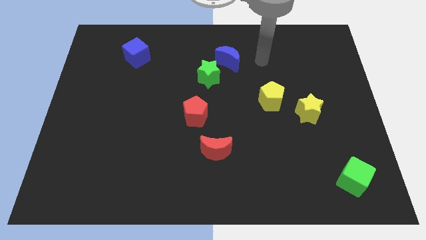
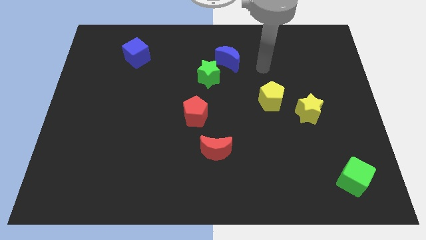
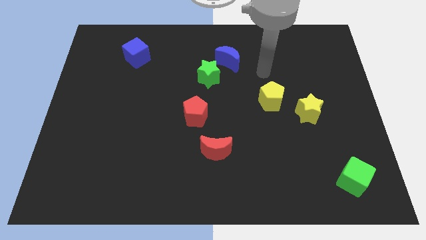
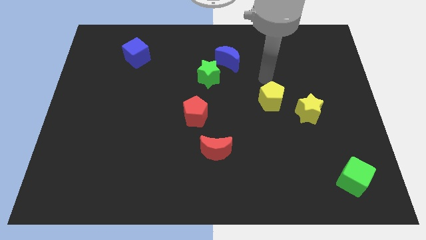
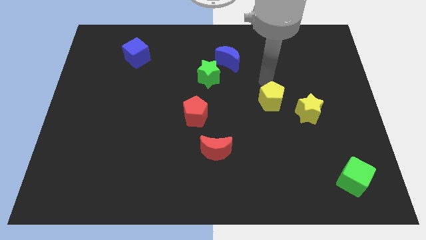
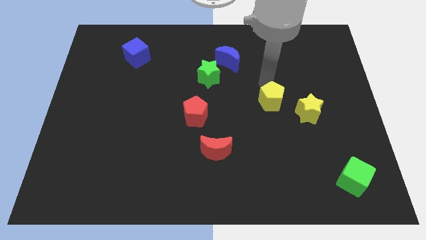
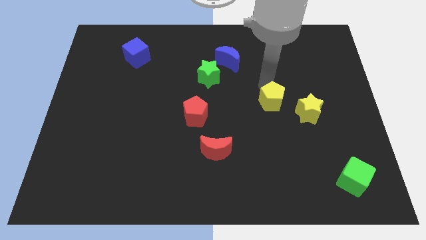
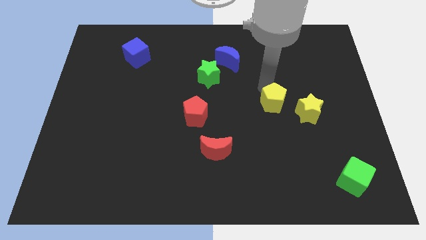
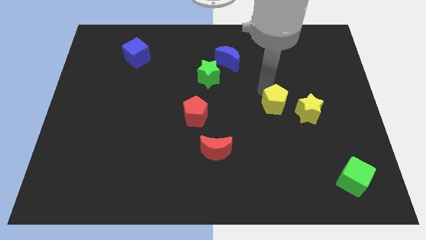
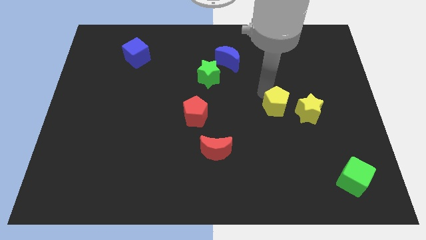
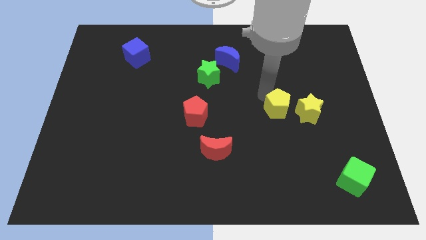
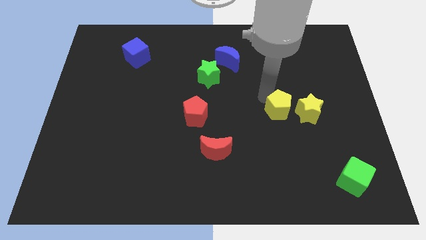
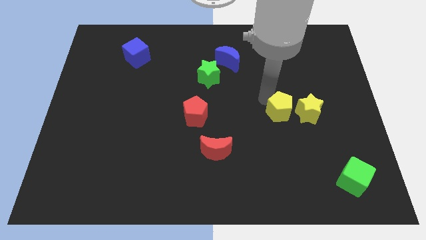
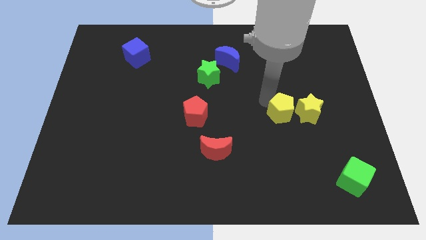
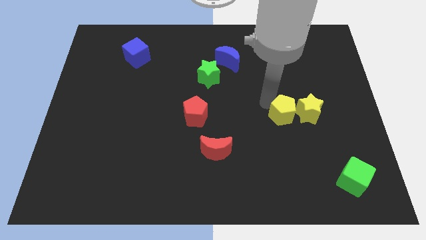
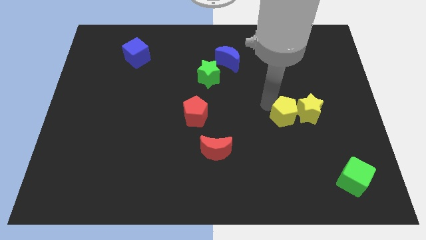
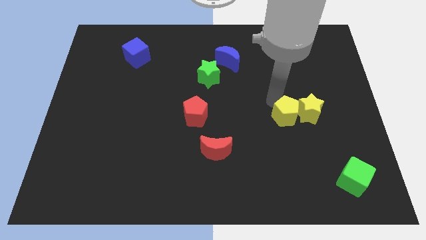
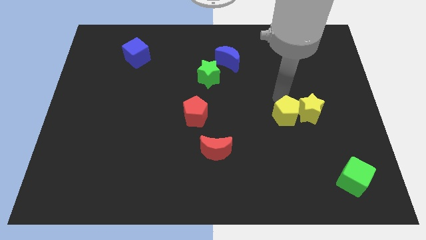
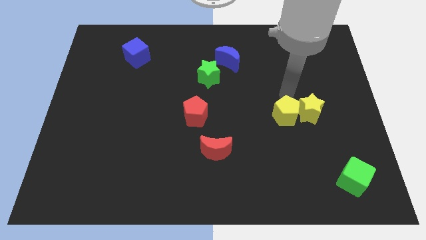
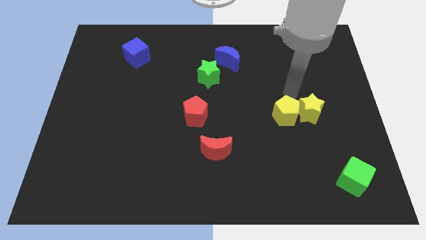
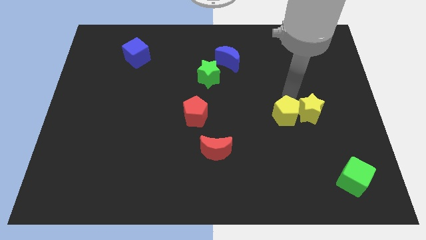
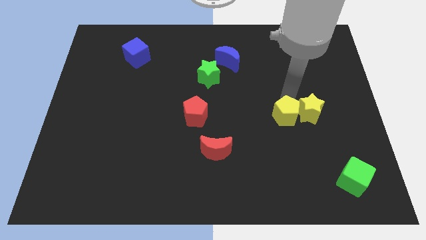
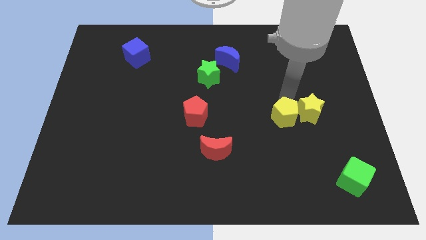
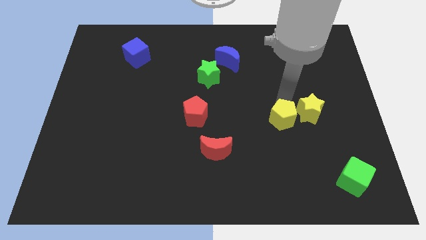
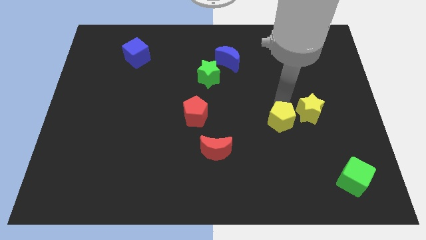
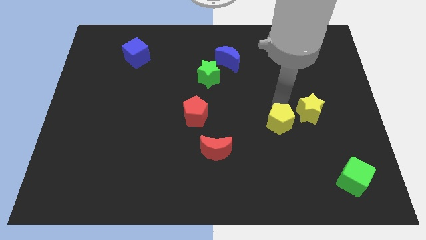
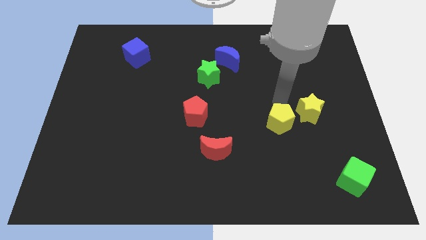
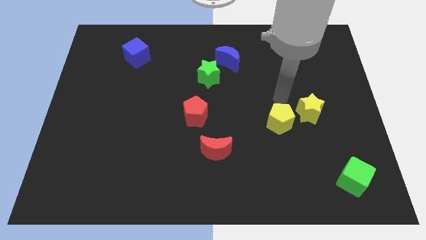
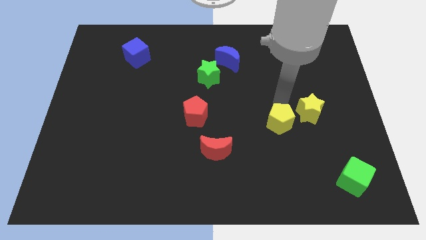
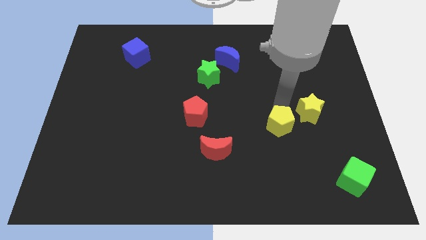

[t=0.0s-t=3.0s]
slide the yellow pentagon a little down

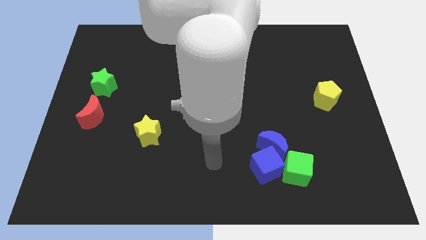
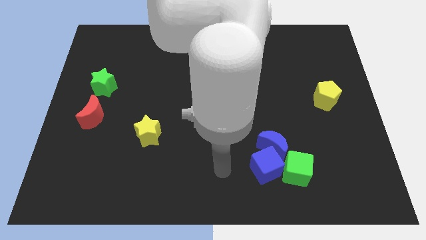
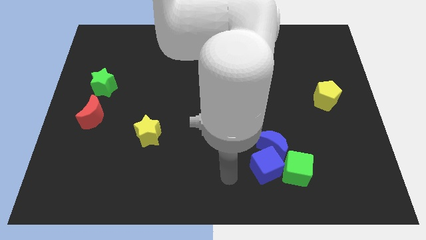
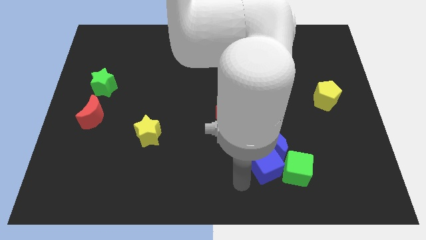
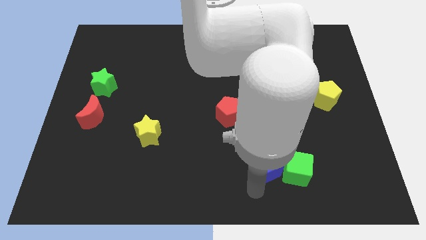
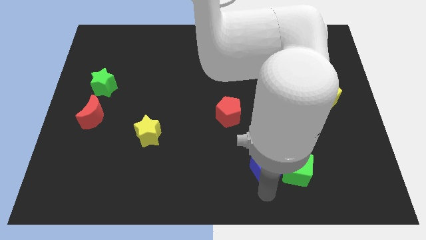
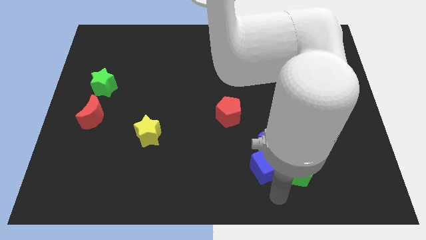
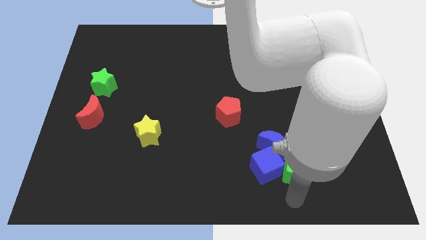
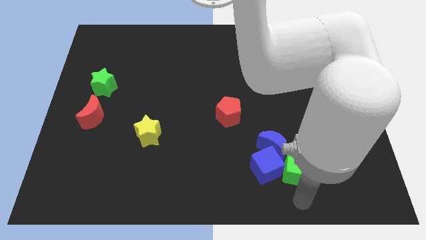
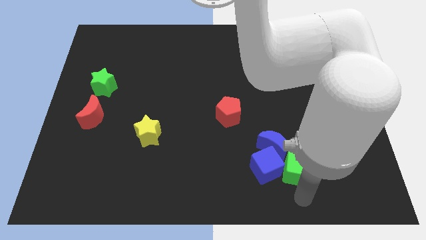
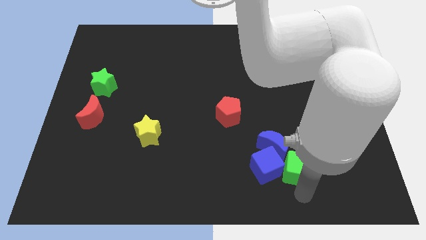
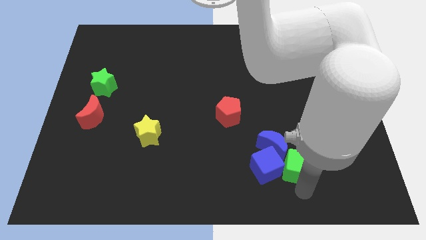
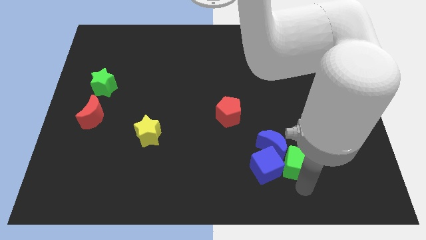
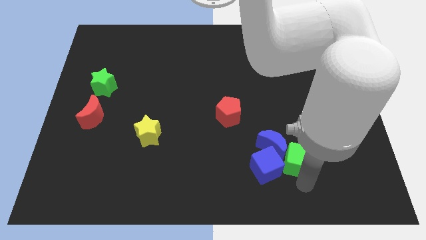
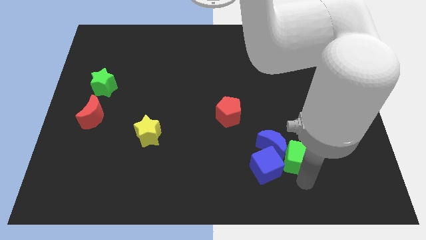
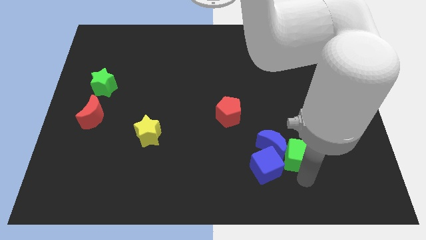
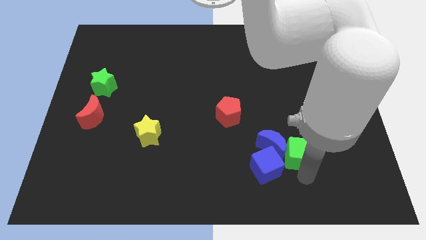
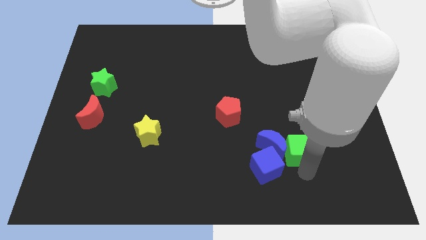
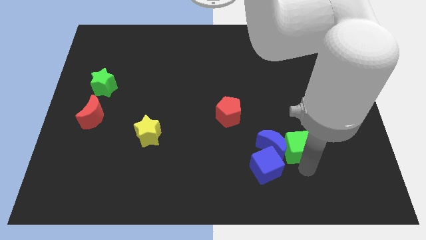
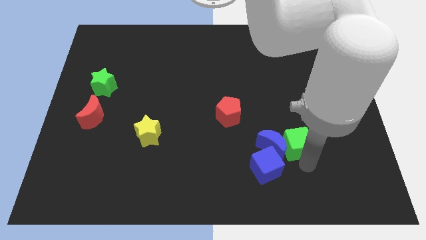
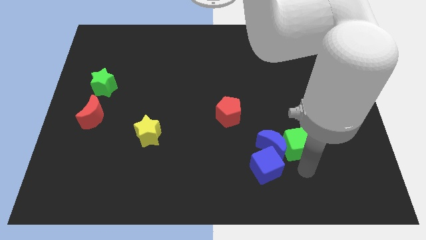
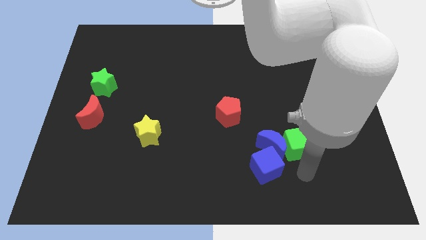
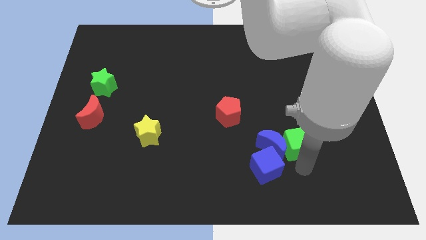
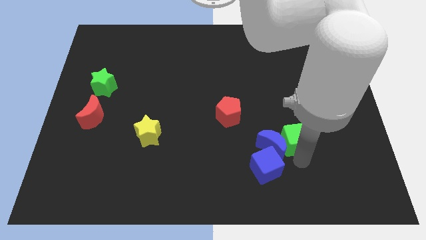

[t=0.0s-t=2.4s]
push the green cube upwards a bit

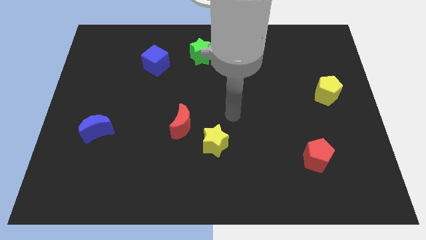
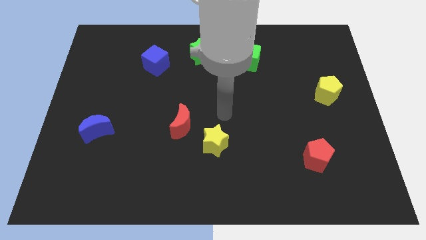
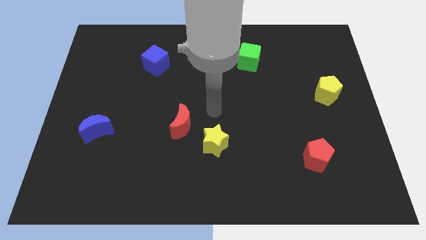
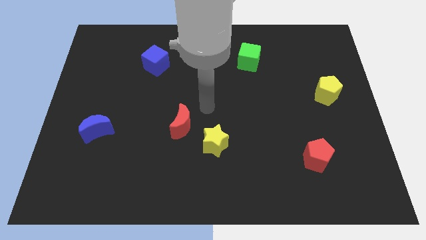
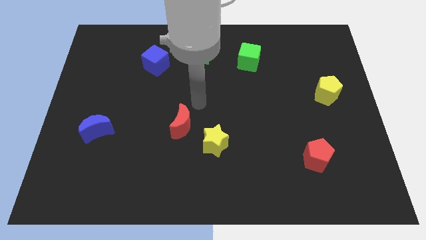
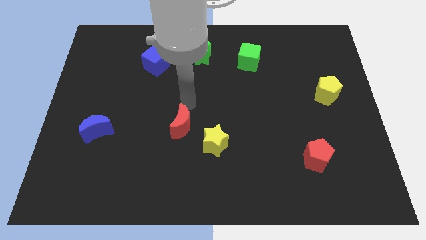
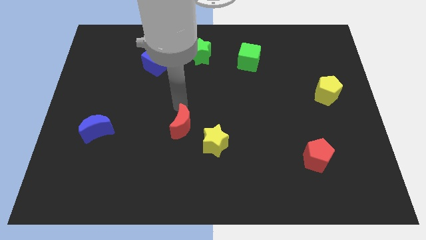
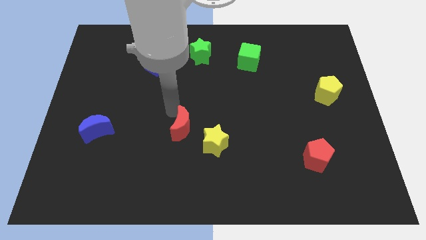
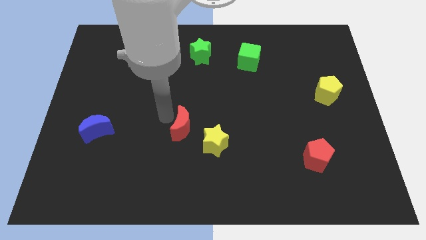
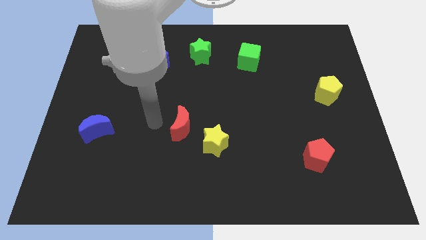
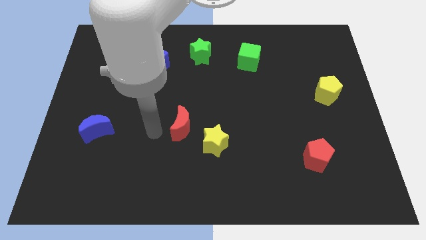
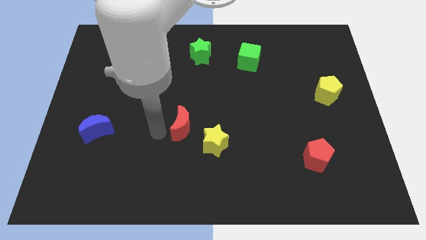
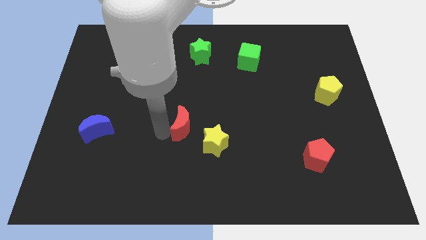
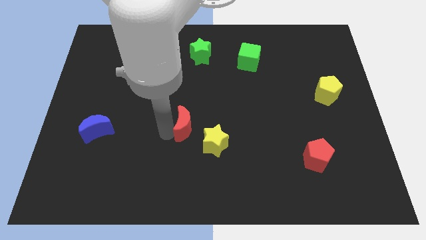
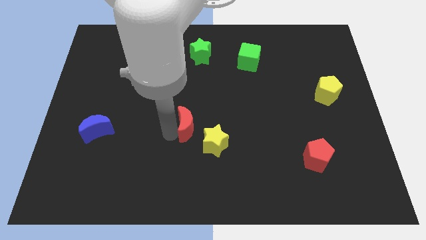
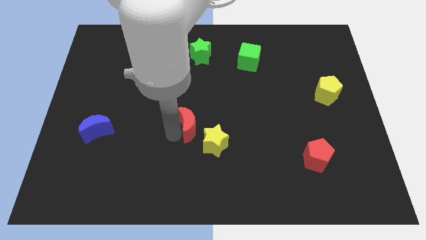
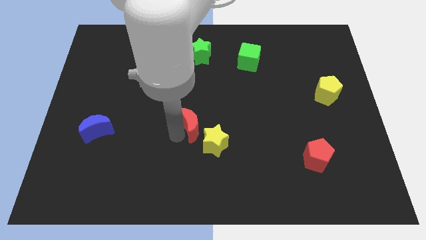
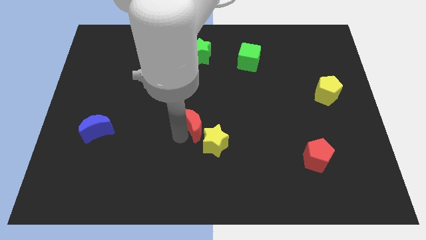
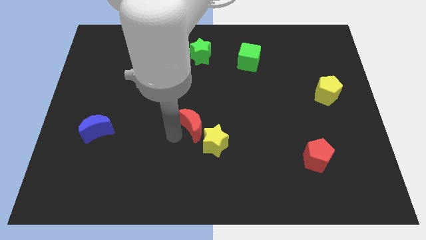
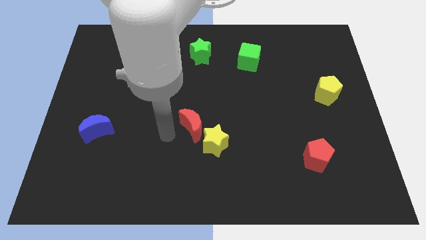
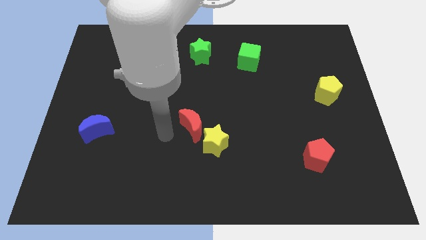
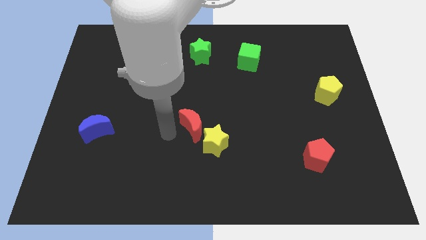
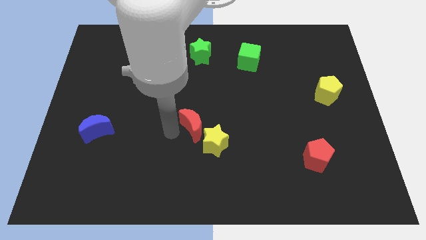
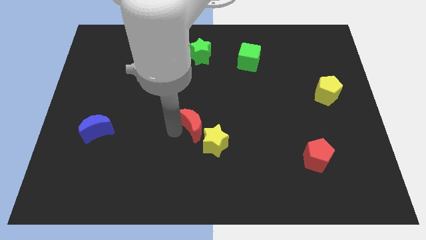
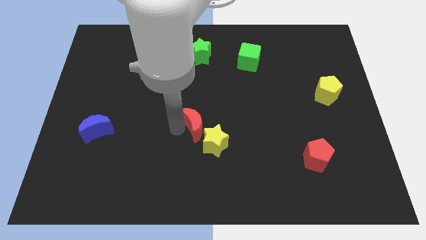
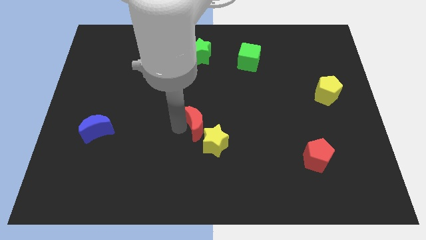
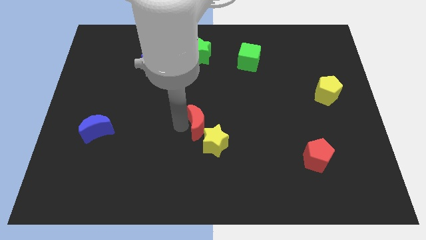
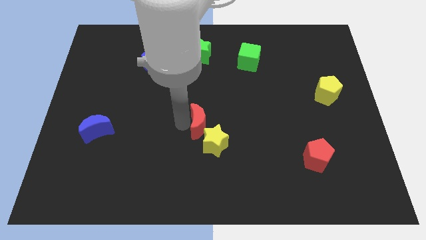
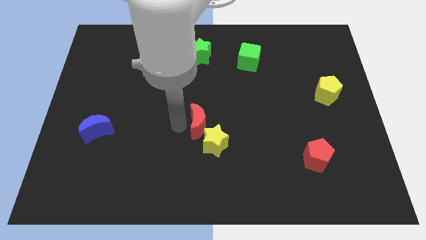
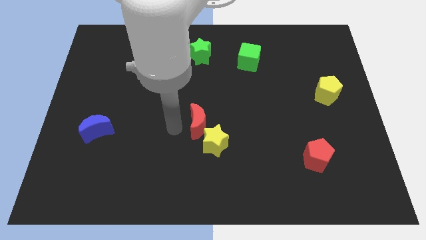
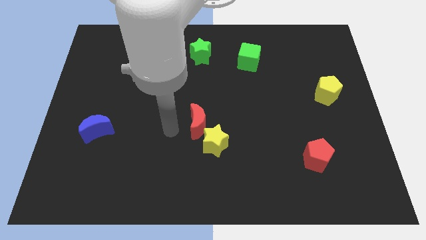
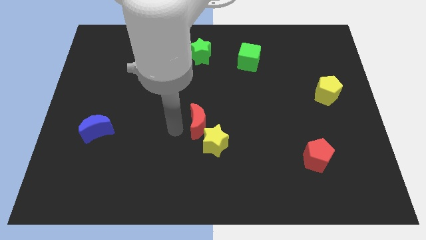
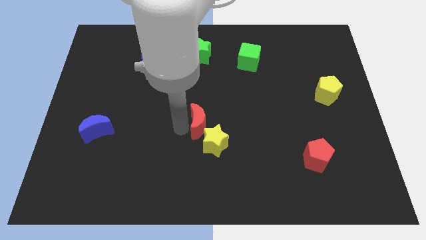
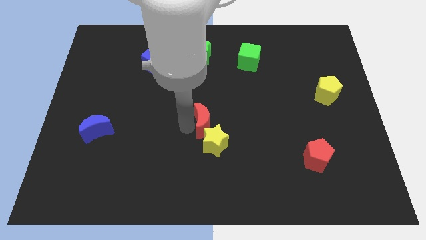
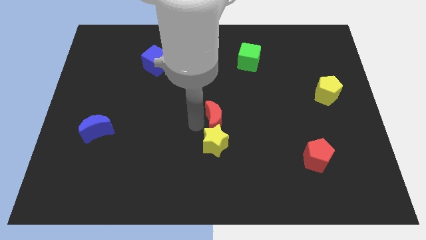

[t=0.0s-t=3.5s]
slightly slide the red moon to the right
